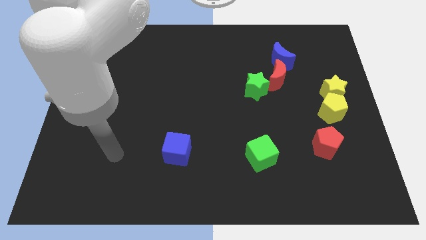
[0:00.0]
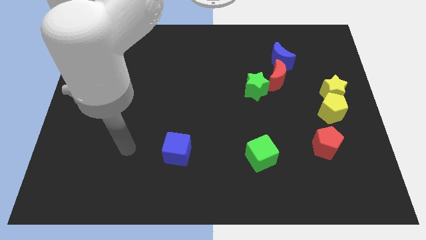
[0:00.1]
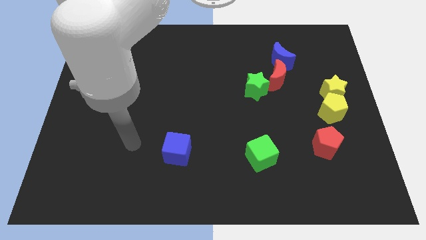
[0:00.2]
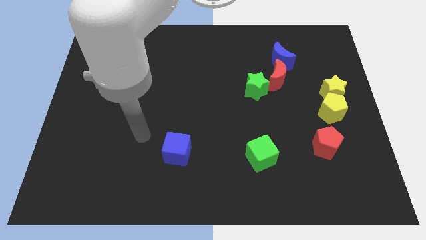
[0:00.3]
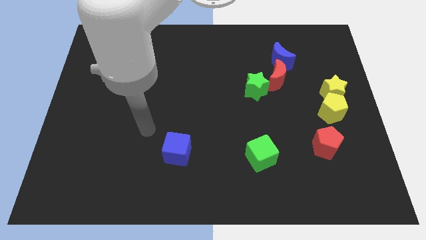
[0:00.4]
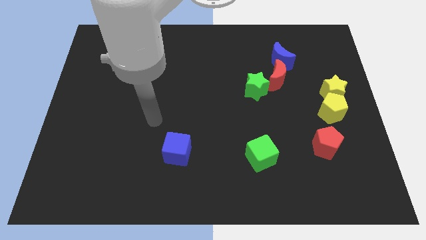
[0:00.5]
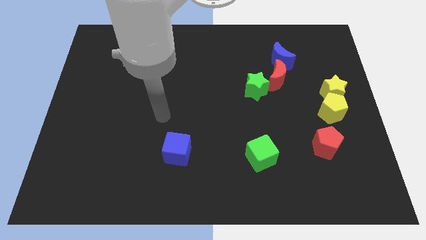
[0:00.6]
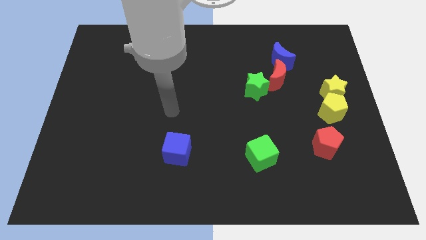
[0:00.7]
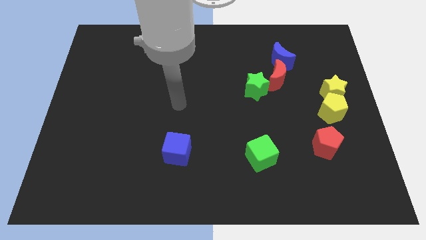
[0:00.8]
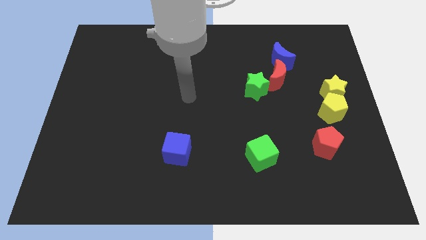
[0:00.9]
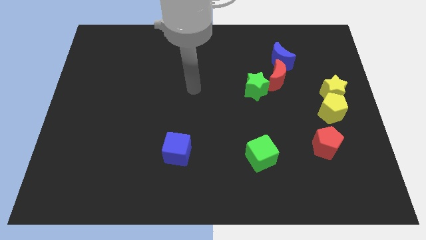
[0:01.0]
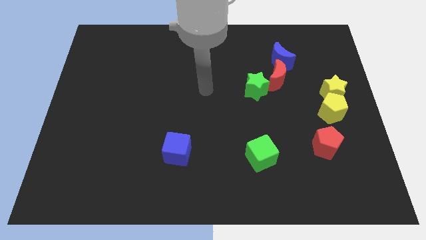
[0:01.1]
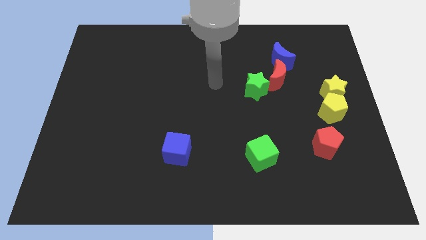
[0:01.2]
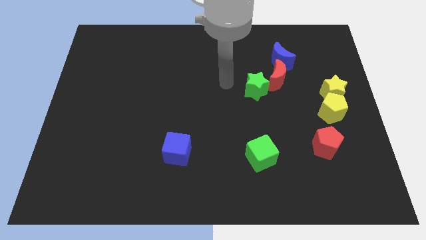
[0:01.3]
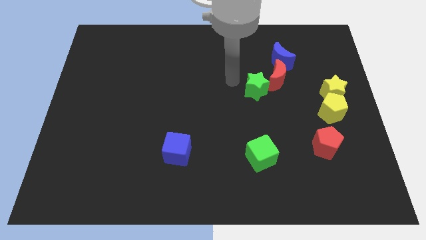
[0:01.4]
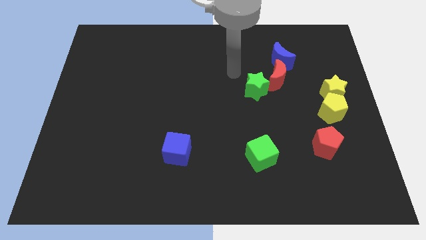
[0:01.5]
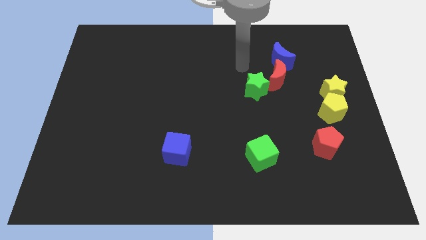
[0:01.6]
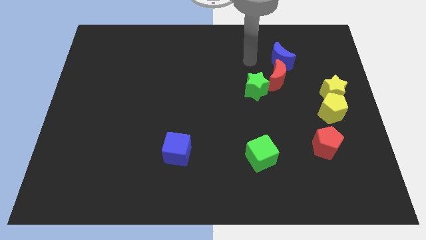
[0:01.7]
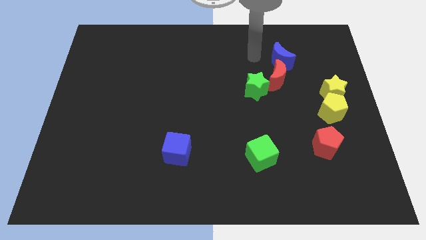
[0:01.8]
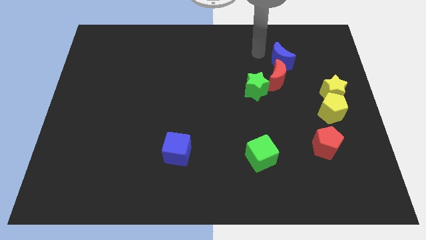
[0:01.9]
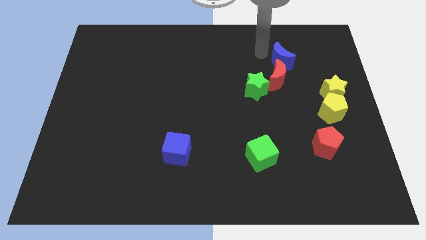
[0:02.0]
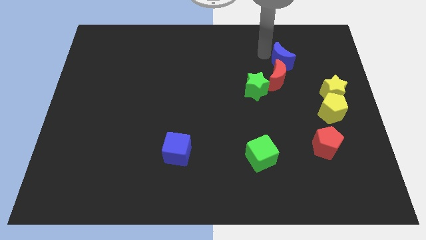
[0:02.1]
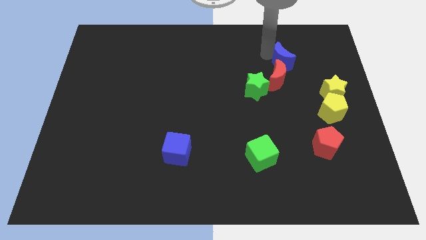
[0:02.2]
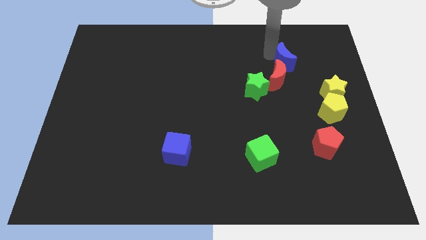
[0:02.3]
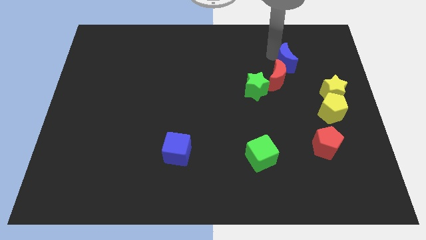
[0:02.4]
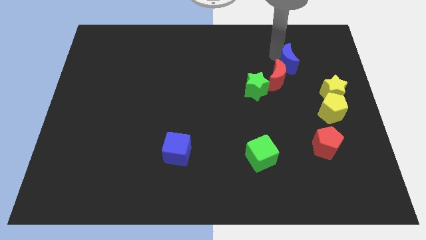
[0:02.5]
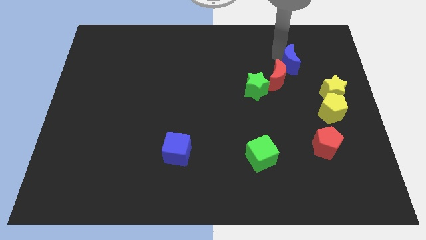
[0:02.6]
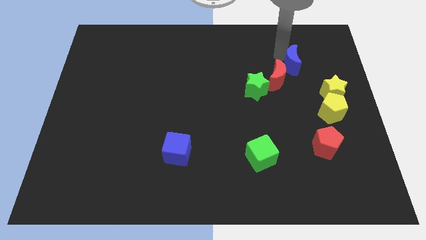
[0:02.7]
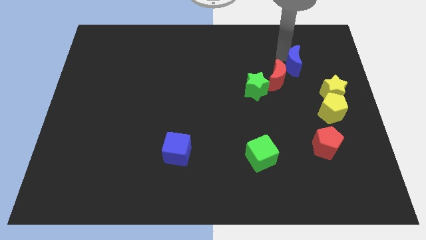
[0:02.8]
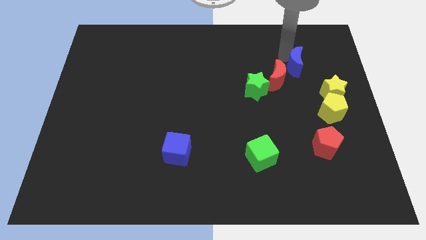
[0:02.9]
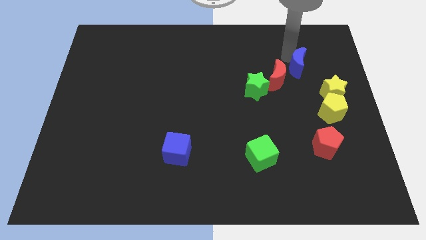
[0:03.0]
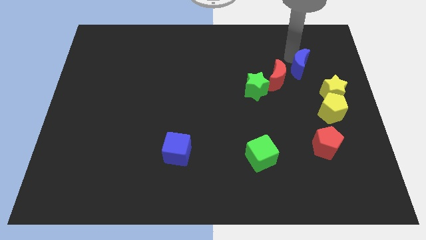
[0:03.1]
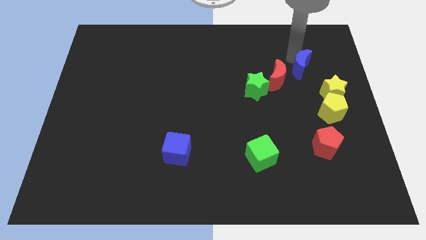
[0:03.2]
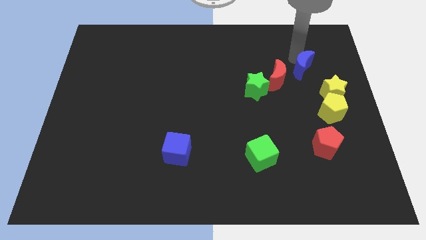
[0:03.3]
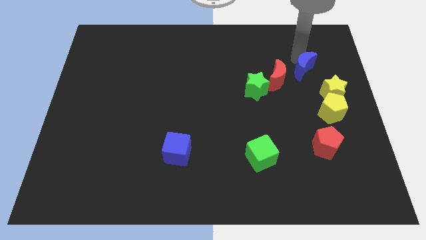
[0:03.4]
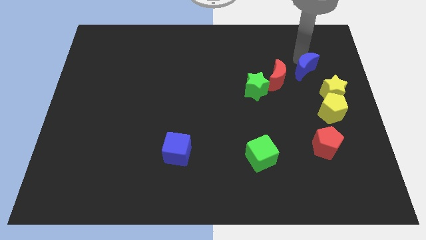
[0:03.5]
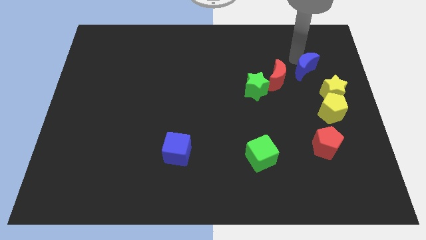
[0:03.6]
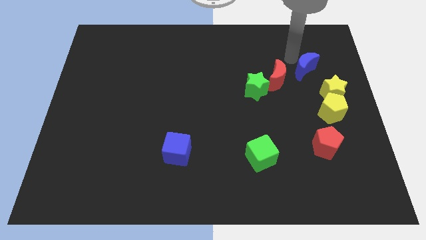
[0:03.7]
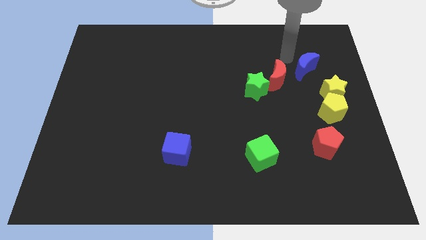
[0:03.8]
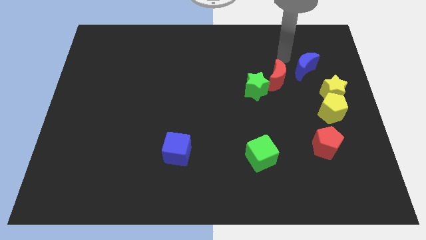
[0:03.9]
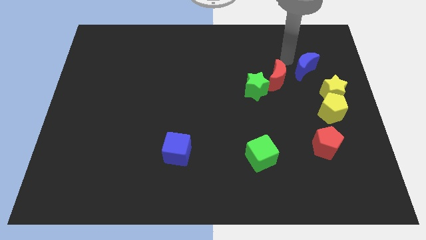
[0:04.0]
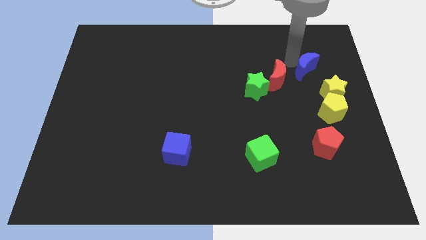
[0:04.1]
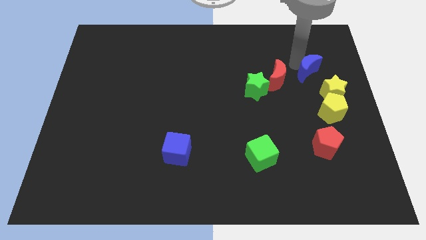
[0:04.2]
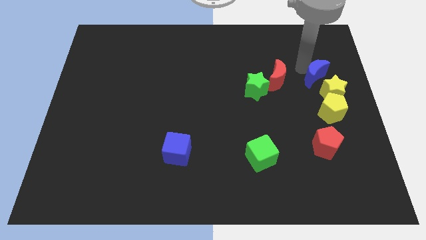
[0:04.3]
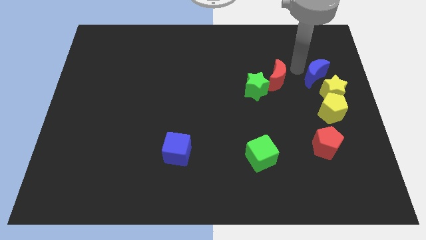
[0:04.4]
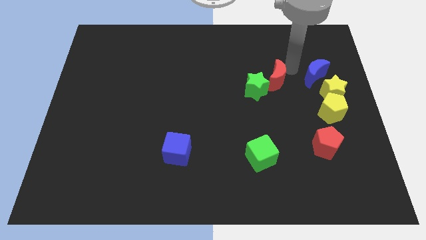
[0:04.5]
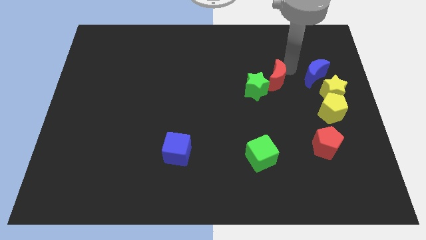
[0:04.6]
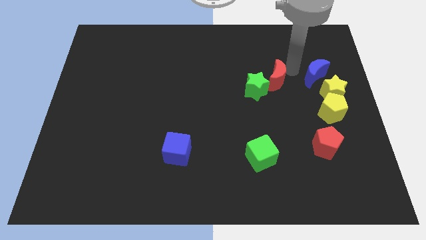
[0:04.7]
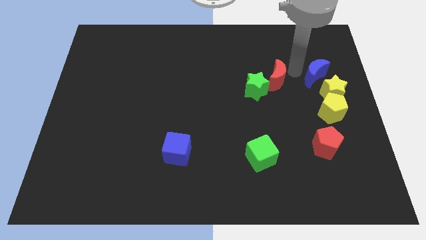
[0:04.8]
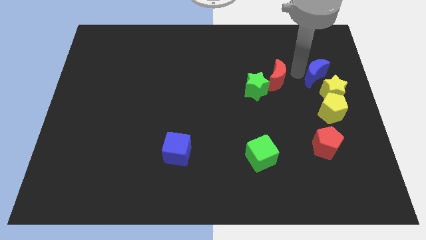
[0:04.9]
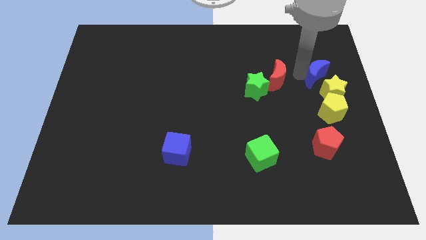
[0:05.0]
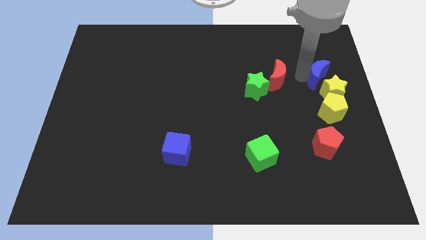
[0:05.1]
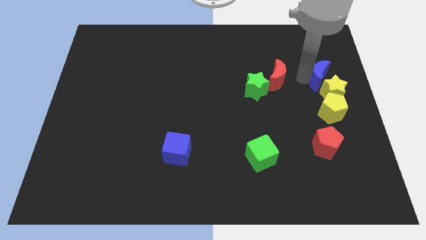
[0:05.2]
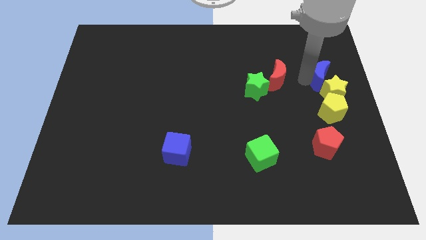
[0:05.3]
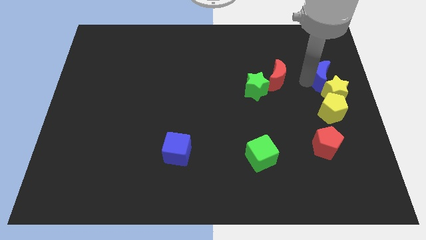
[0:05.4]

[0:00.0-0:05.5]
move the blue moon to the center right
